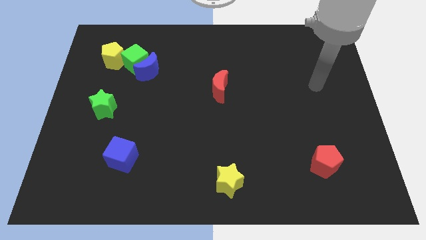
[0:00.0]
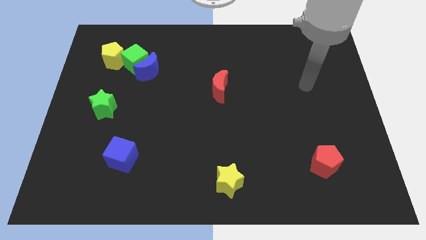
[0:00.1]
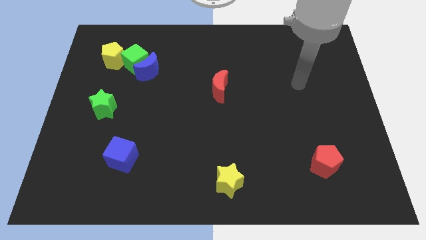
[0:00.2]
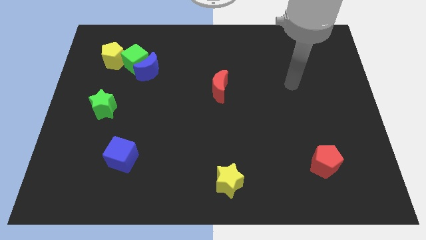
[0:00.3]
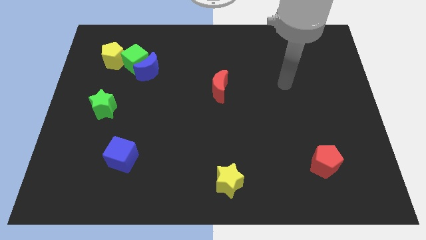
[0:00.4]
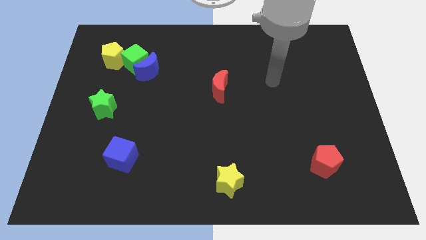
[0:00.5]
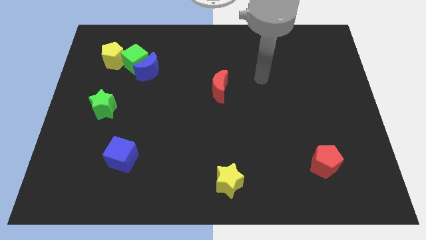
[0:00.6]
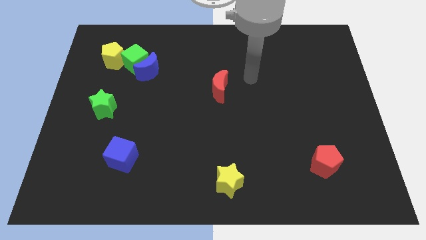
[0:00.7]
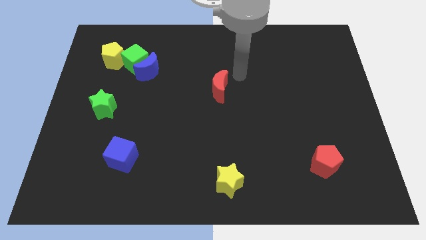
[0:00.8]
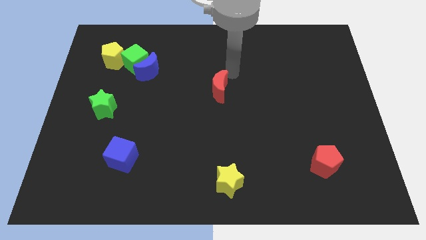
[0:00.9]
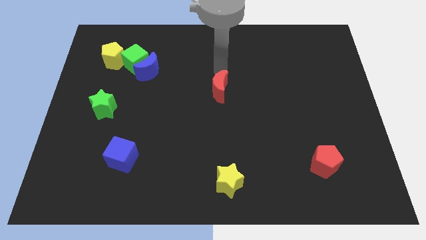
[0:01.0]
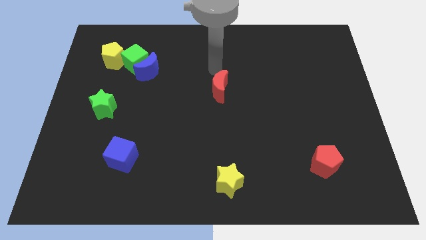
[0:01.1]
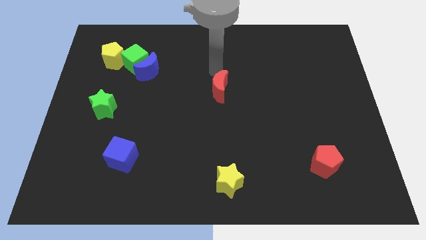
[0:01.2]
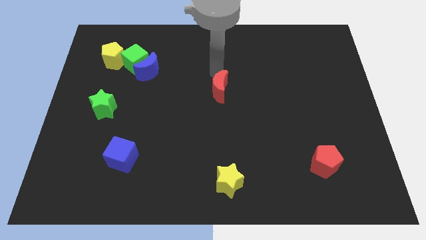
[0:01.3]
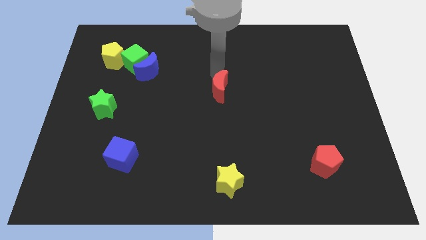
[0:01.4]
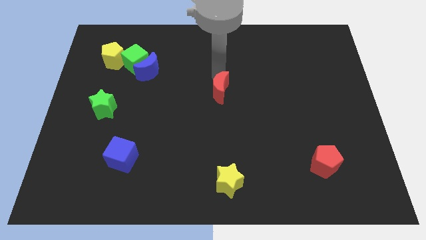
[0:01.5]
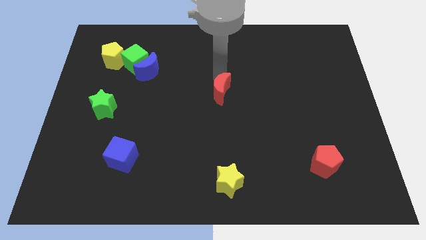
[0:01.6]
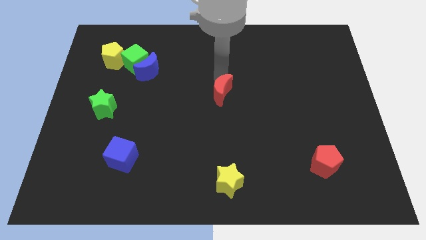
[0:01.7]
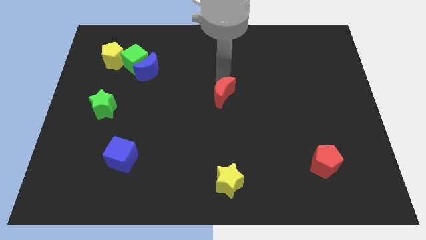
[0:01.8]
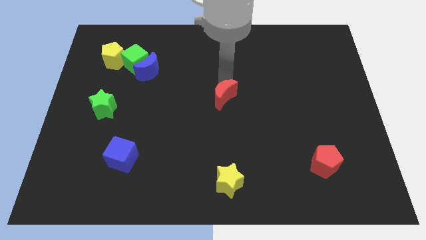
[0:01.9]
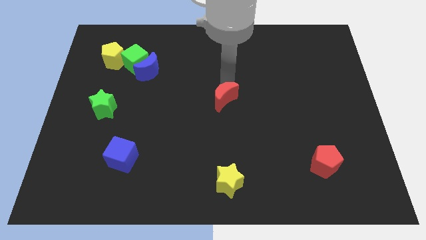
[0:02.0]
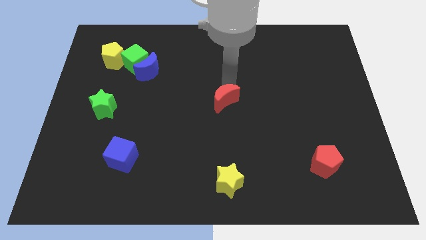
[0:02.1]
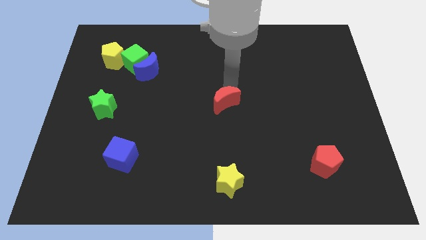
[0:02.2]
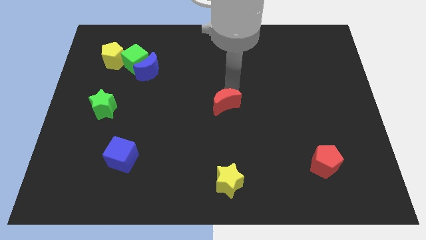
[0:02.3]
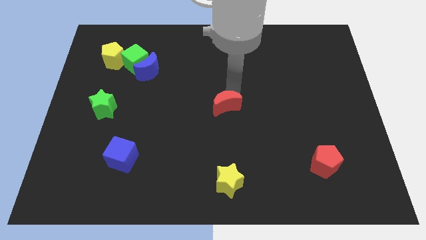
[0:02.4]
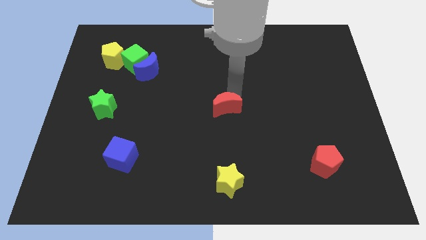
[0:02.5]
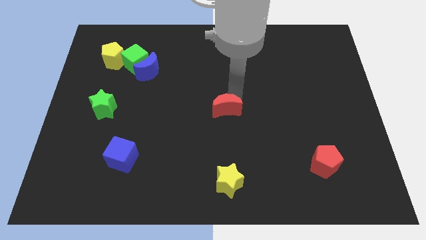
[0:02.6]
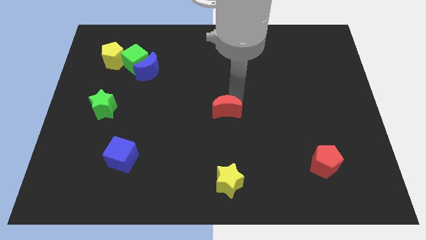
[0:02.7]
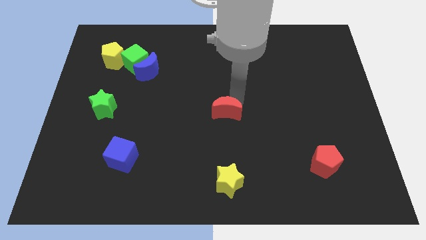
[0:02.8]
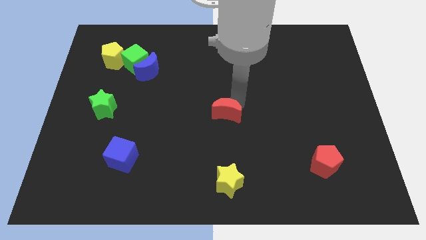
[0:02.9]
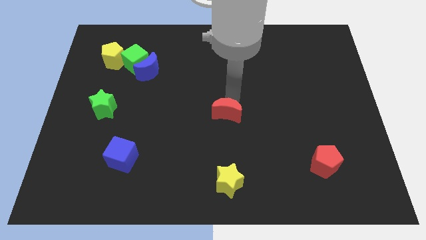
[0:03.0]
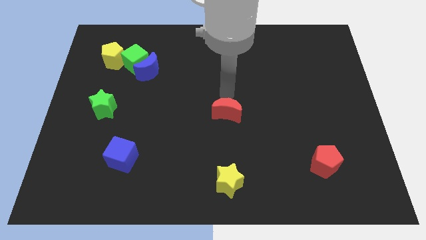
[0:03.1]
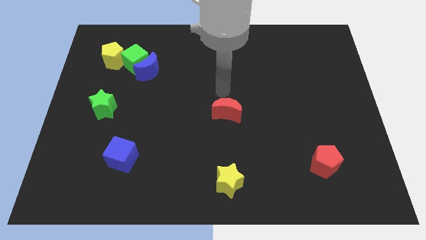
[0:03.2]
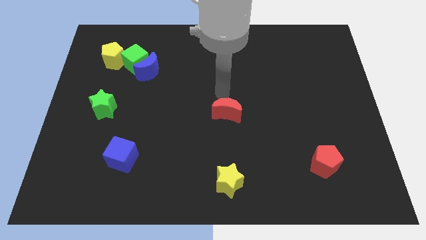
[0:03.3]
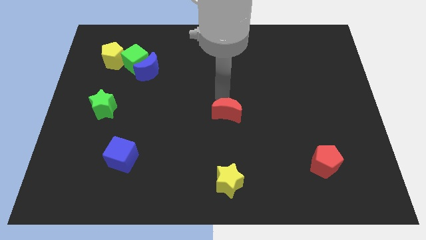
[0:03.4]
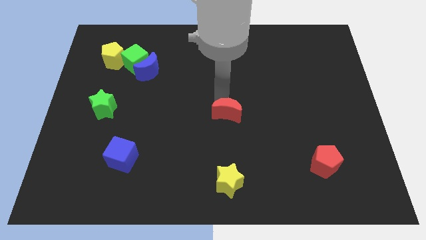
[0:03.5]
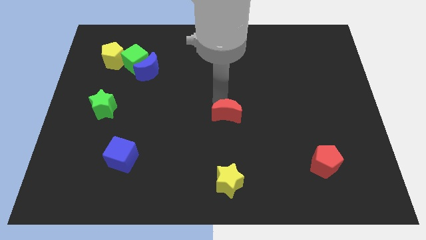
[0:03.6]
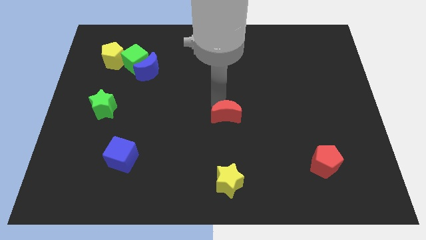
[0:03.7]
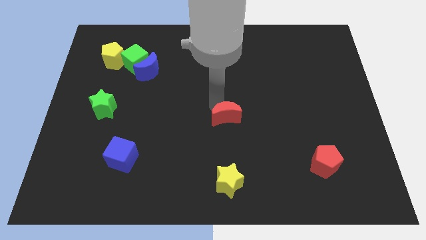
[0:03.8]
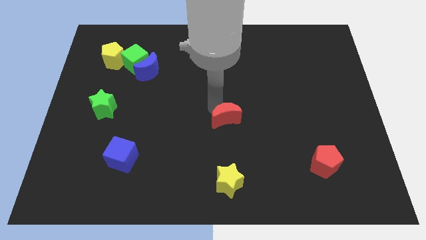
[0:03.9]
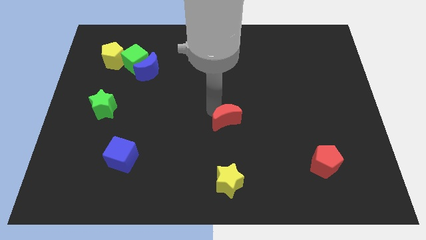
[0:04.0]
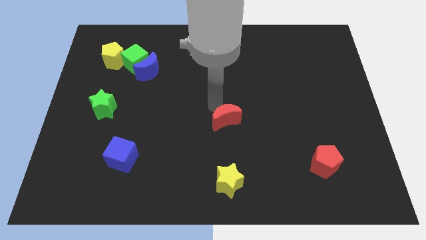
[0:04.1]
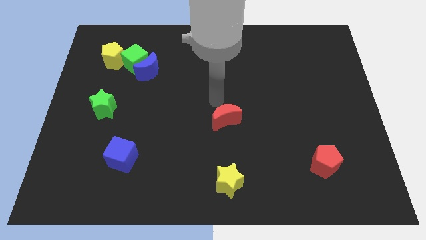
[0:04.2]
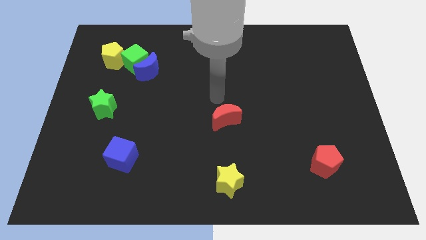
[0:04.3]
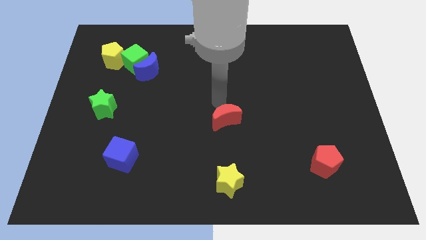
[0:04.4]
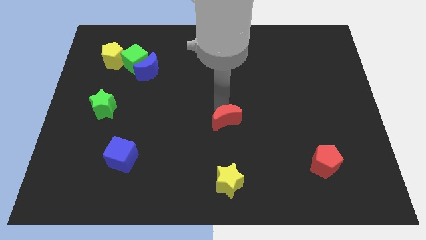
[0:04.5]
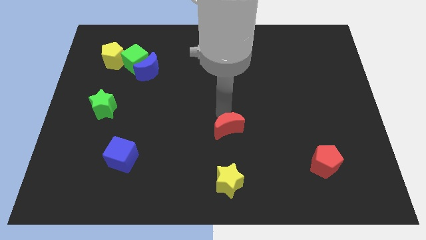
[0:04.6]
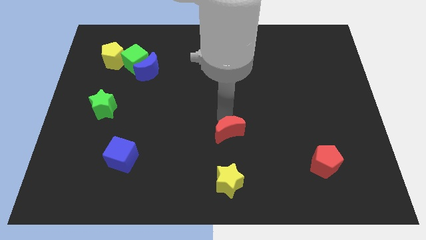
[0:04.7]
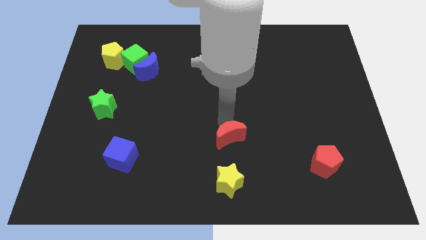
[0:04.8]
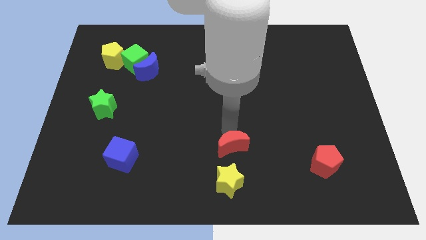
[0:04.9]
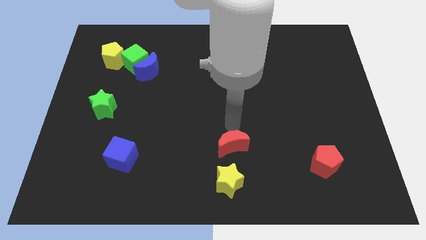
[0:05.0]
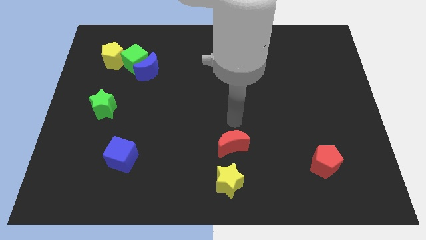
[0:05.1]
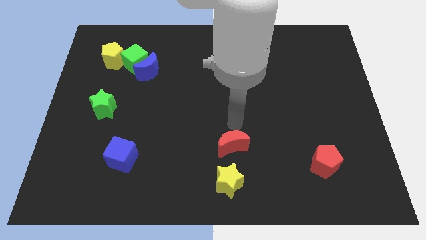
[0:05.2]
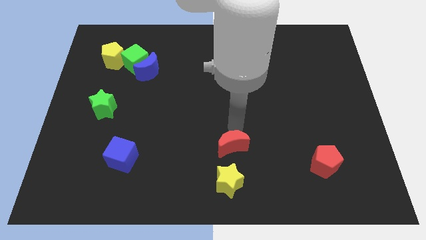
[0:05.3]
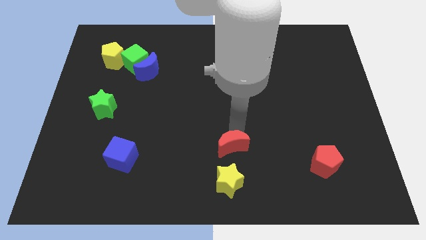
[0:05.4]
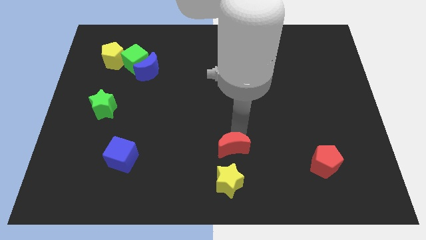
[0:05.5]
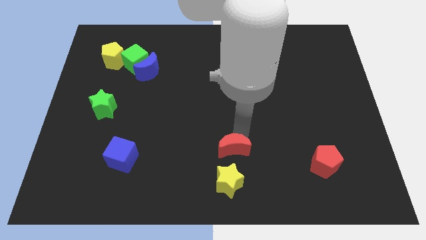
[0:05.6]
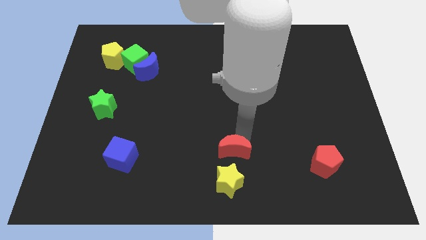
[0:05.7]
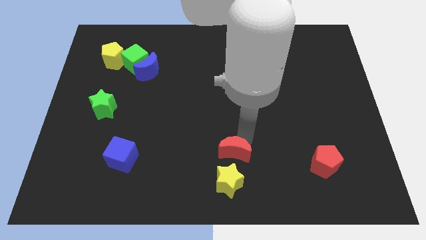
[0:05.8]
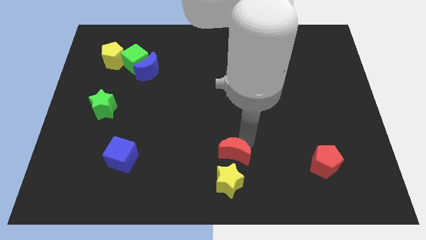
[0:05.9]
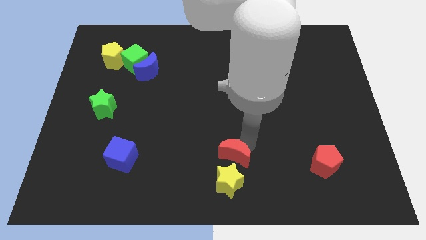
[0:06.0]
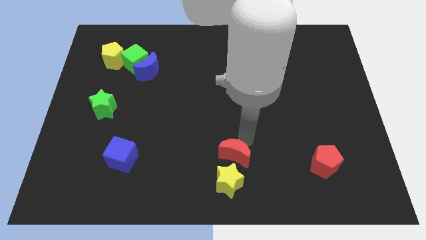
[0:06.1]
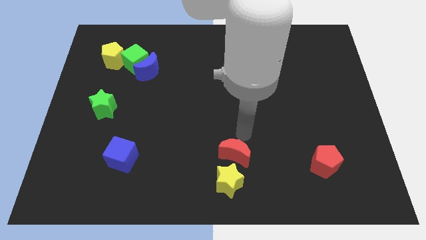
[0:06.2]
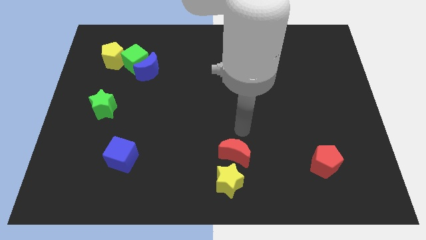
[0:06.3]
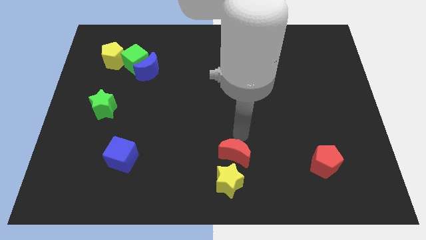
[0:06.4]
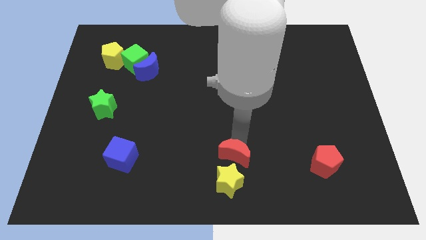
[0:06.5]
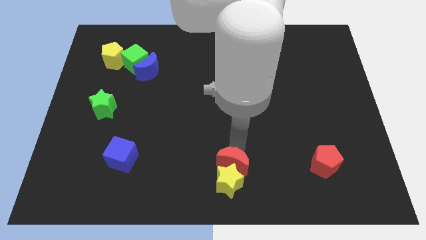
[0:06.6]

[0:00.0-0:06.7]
move the red moon towards the yellow star
